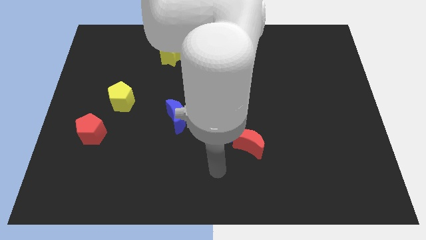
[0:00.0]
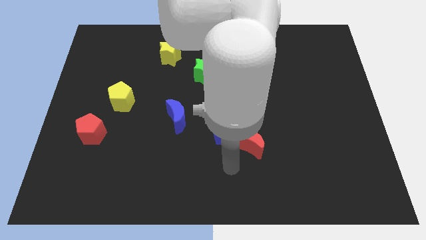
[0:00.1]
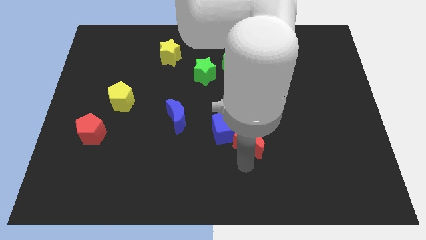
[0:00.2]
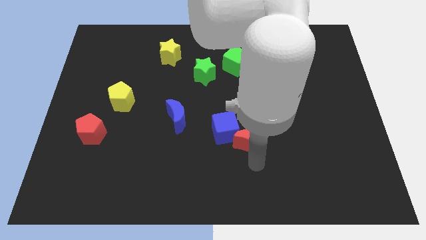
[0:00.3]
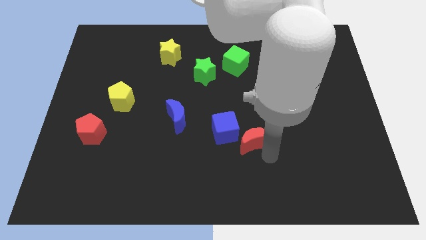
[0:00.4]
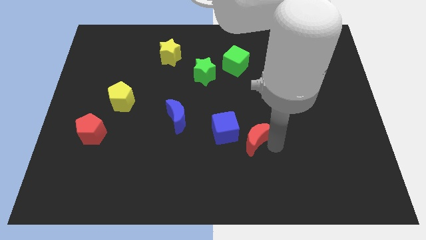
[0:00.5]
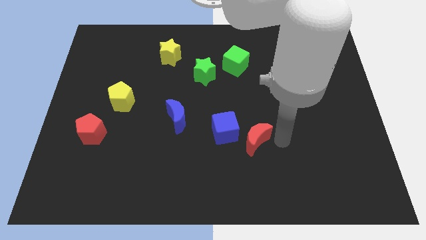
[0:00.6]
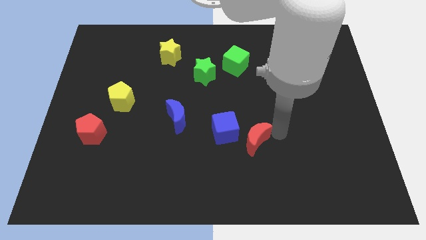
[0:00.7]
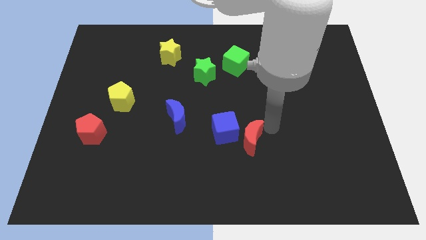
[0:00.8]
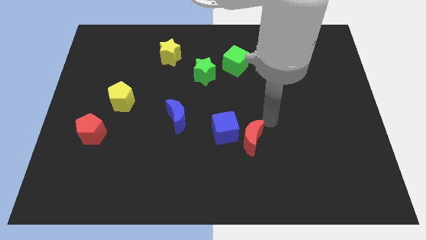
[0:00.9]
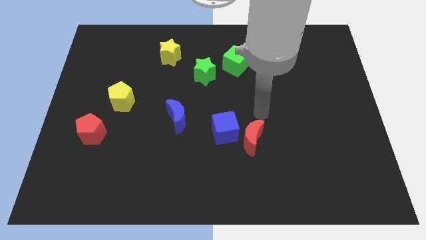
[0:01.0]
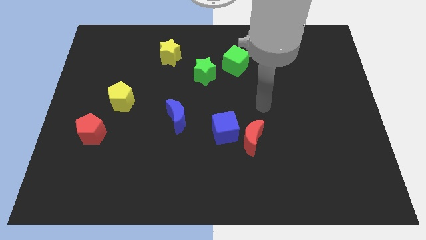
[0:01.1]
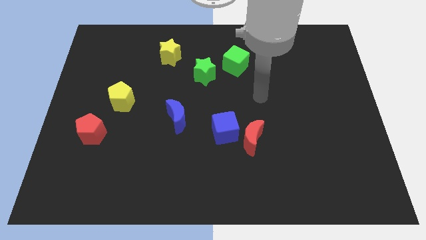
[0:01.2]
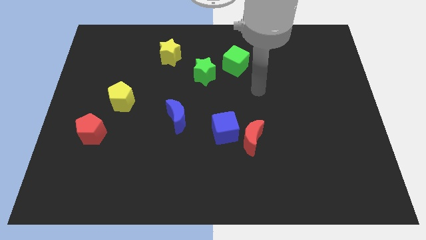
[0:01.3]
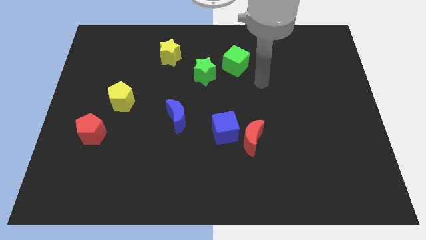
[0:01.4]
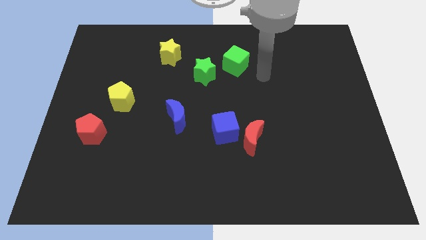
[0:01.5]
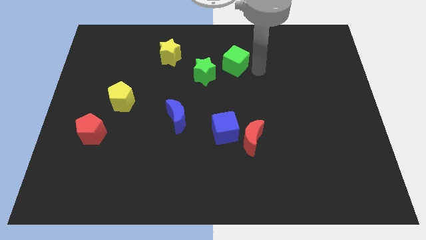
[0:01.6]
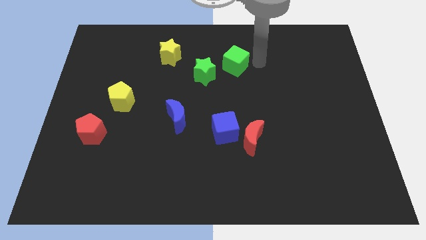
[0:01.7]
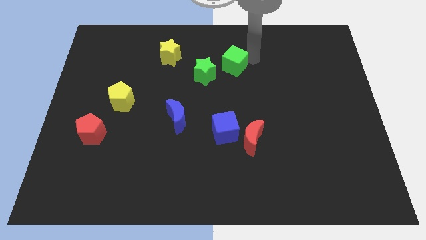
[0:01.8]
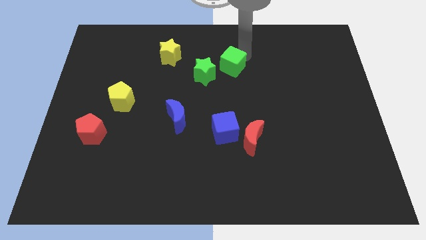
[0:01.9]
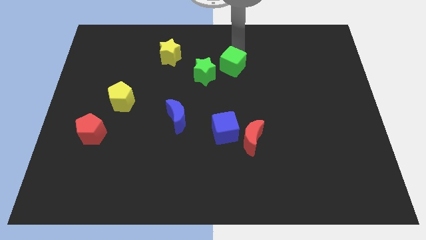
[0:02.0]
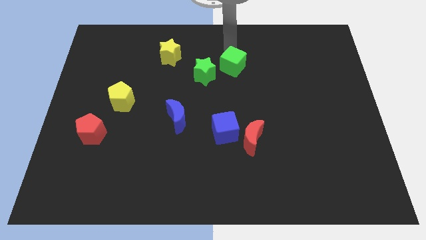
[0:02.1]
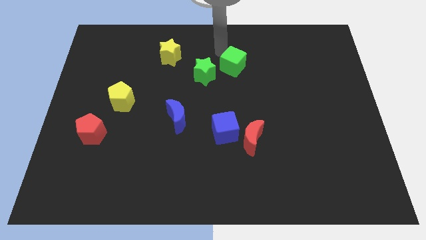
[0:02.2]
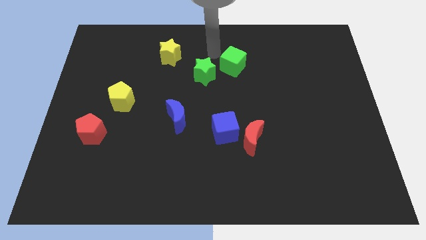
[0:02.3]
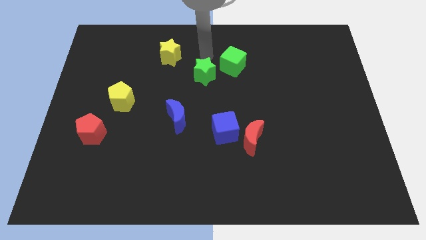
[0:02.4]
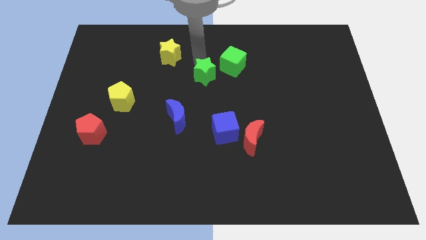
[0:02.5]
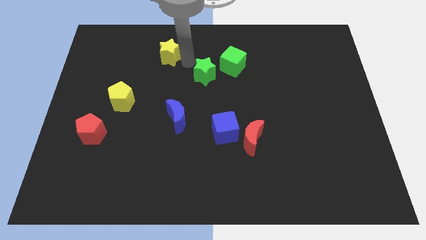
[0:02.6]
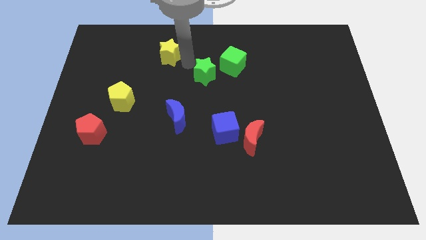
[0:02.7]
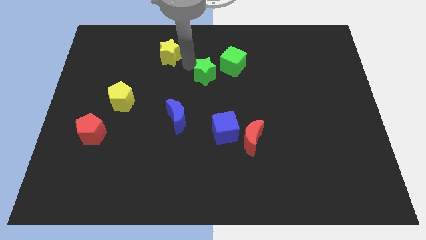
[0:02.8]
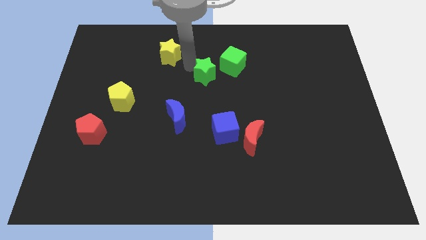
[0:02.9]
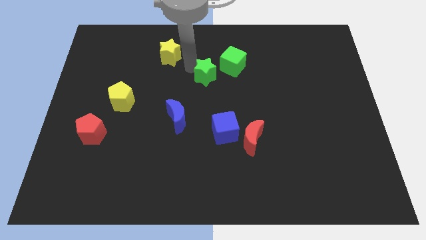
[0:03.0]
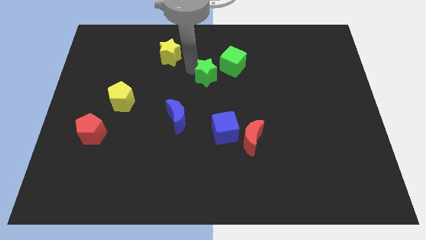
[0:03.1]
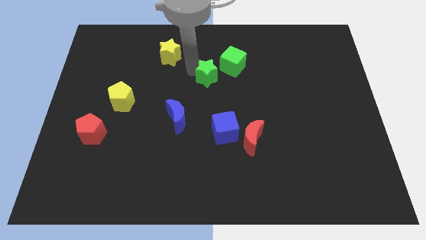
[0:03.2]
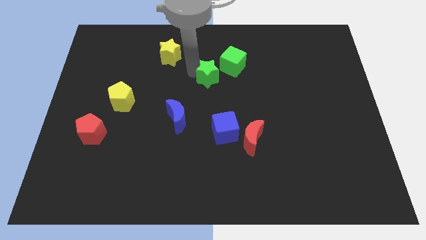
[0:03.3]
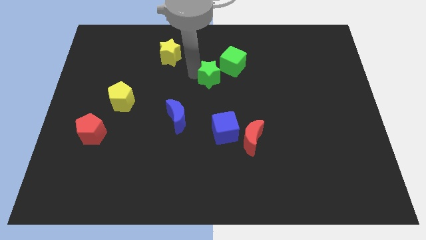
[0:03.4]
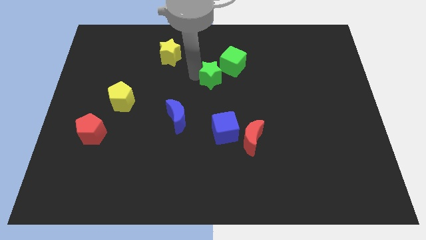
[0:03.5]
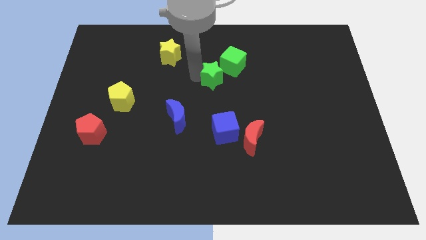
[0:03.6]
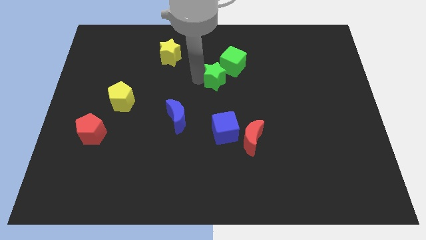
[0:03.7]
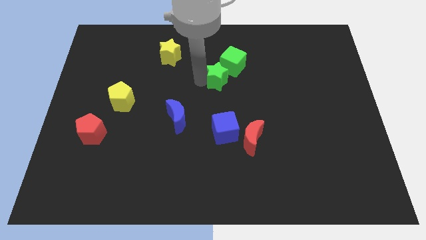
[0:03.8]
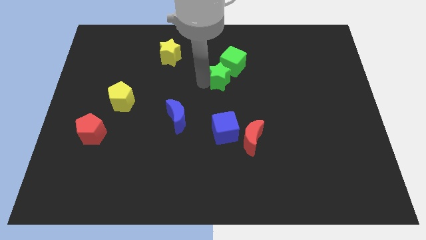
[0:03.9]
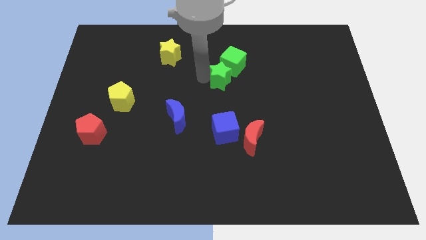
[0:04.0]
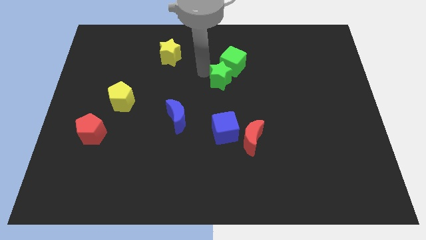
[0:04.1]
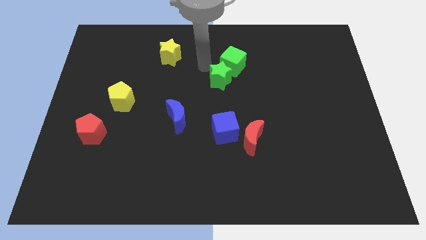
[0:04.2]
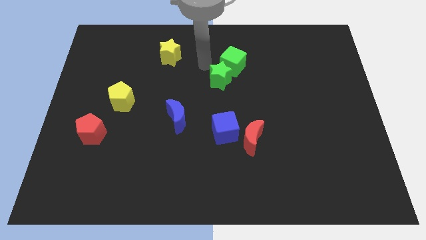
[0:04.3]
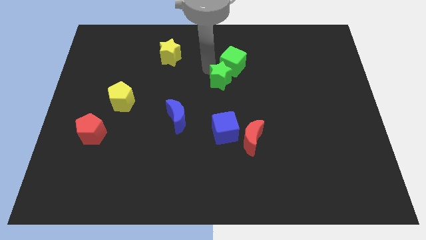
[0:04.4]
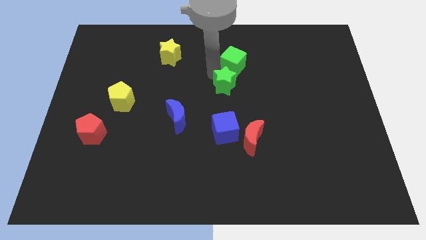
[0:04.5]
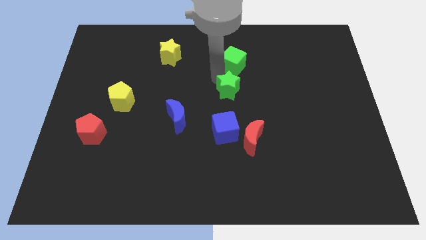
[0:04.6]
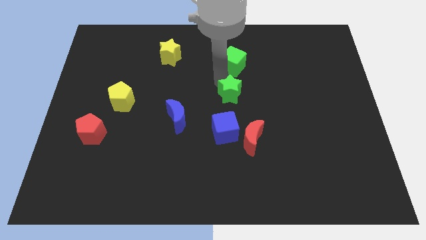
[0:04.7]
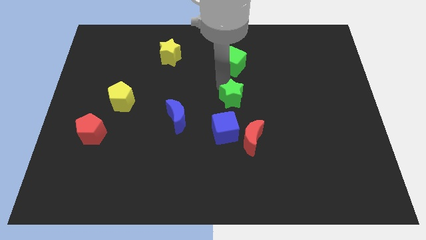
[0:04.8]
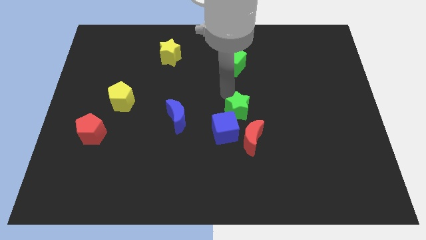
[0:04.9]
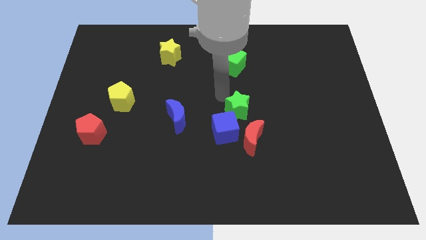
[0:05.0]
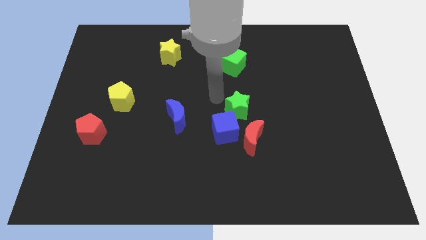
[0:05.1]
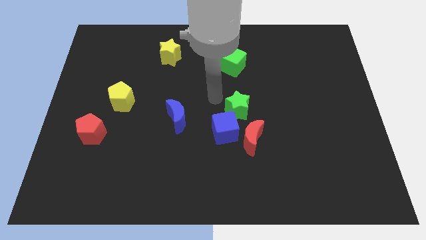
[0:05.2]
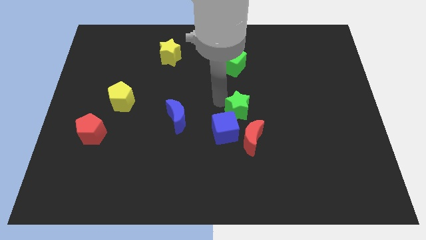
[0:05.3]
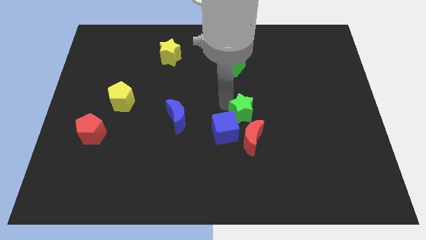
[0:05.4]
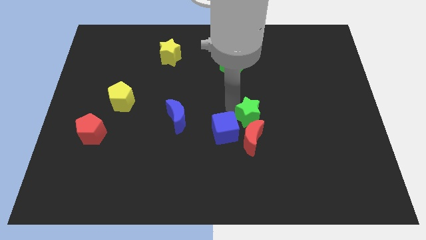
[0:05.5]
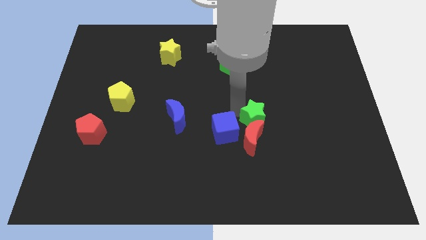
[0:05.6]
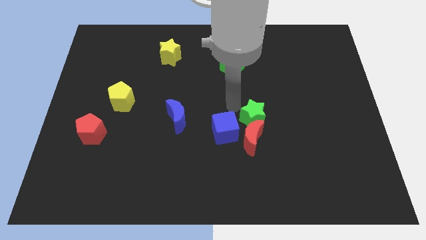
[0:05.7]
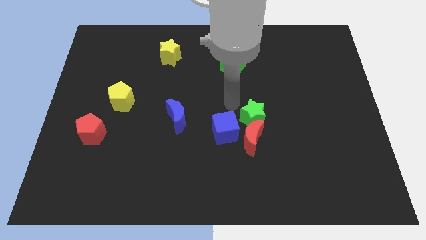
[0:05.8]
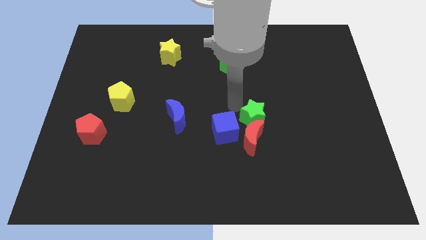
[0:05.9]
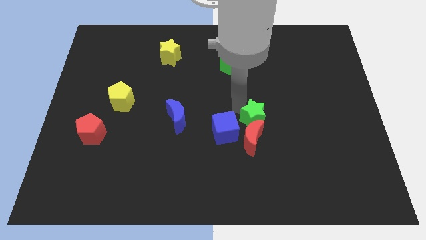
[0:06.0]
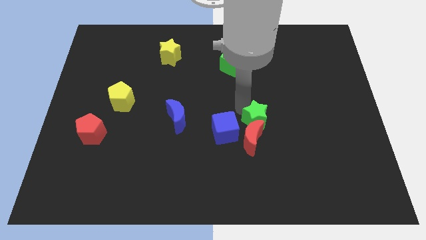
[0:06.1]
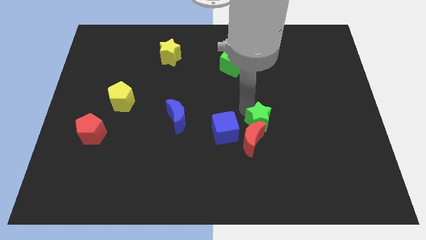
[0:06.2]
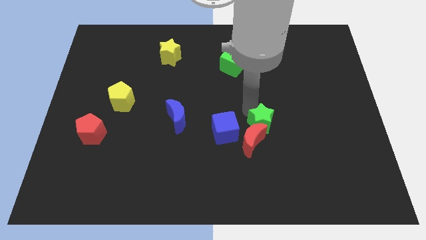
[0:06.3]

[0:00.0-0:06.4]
move the green star diagonally down and to the right

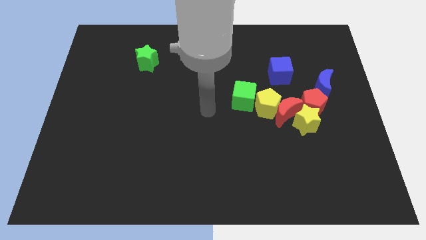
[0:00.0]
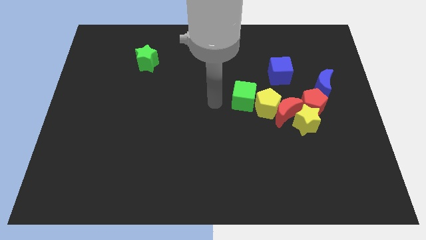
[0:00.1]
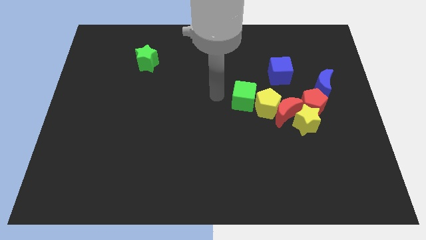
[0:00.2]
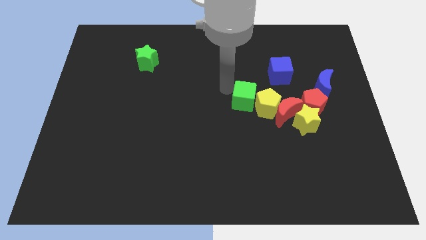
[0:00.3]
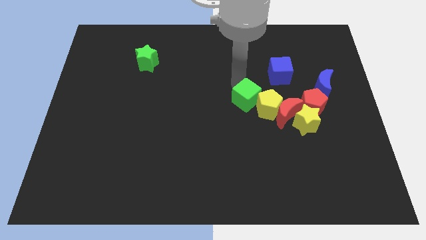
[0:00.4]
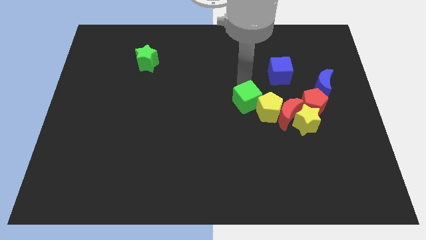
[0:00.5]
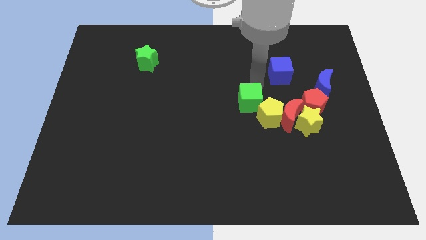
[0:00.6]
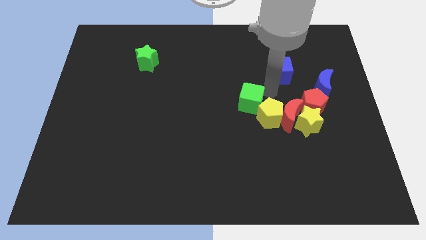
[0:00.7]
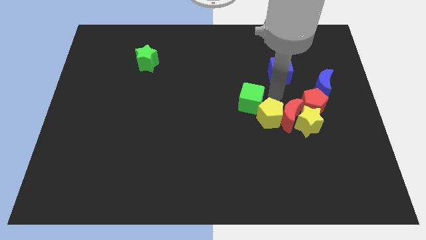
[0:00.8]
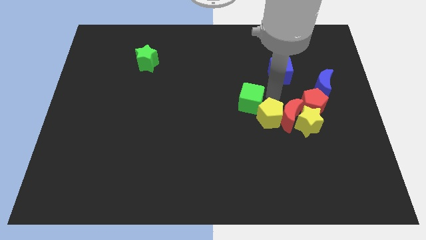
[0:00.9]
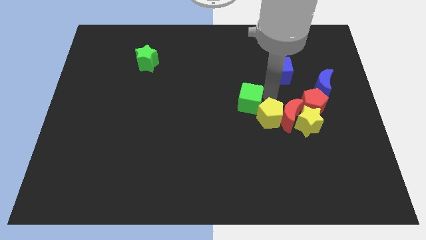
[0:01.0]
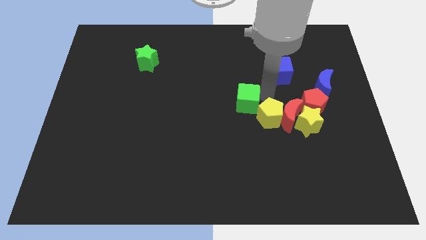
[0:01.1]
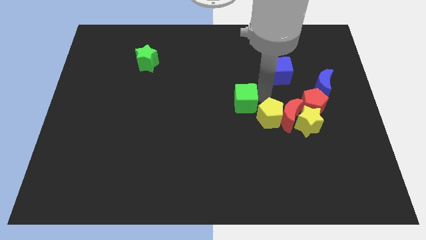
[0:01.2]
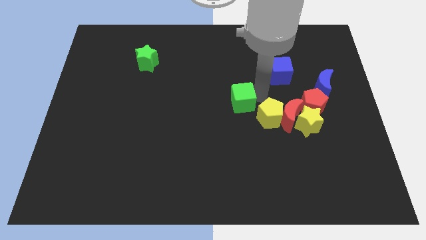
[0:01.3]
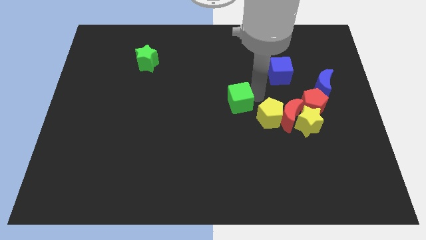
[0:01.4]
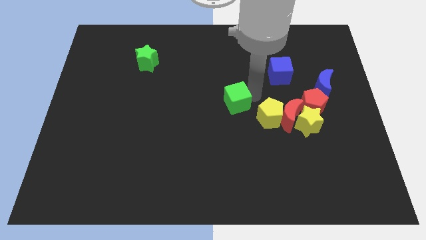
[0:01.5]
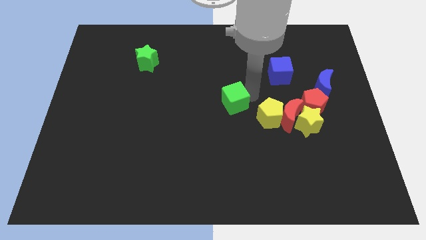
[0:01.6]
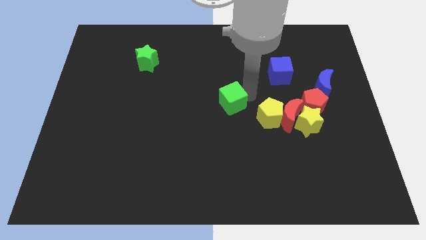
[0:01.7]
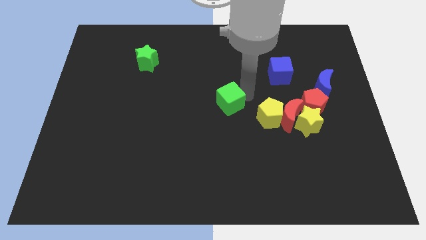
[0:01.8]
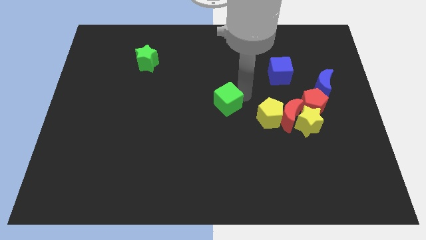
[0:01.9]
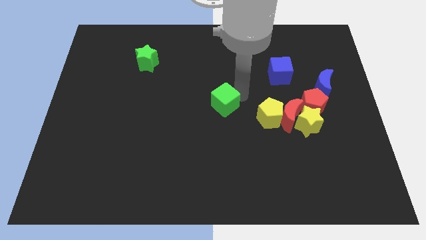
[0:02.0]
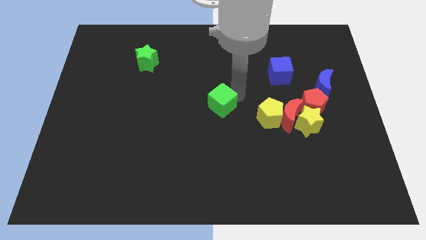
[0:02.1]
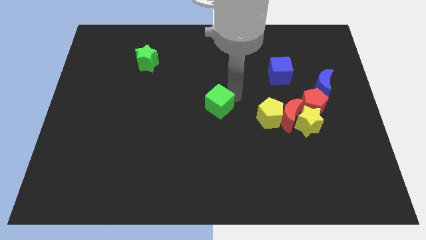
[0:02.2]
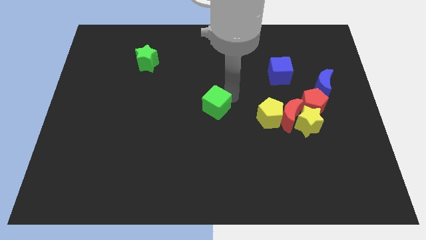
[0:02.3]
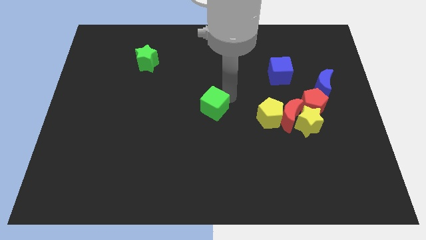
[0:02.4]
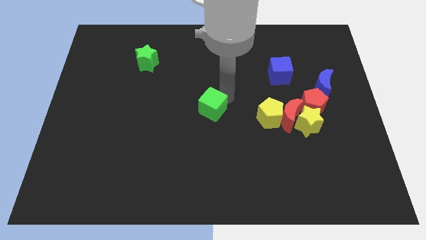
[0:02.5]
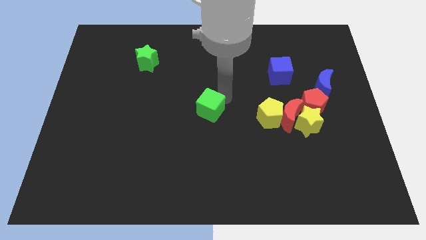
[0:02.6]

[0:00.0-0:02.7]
slightly push the green cube diagonally downwards and to the left
